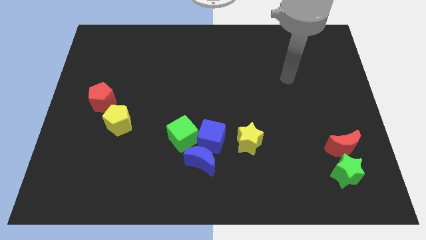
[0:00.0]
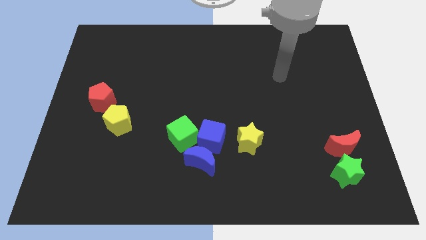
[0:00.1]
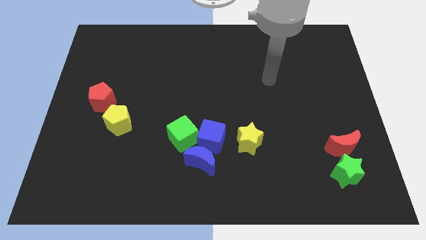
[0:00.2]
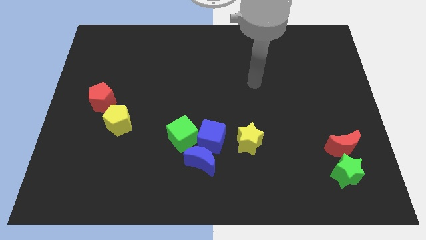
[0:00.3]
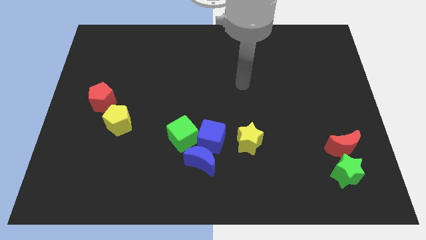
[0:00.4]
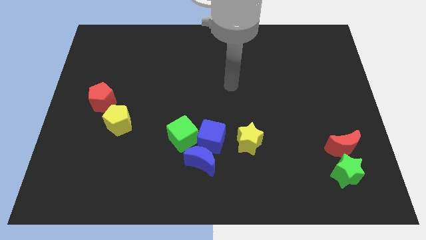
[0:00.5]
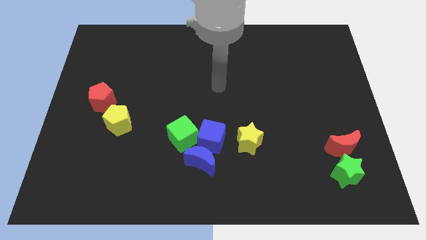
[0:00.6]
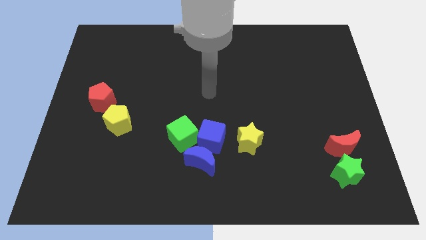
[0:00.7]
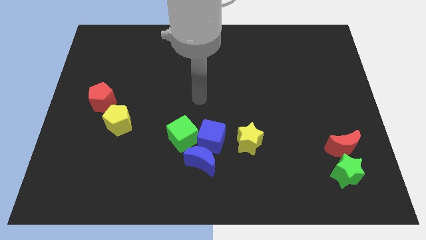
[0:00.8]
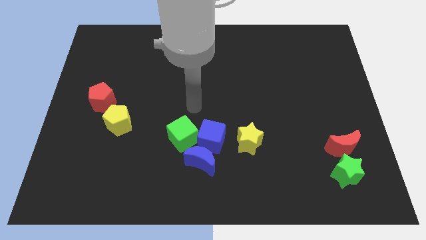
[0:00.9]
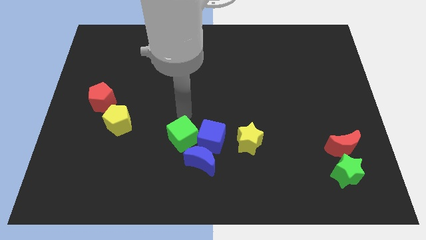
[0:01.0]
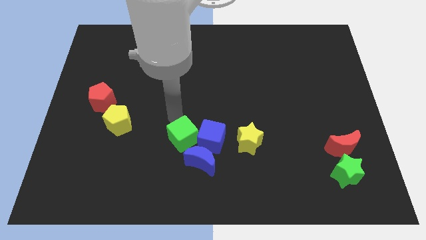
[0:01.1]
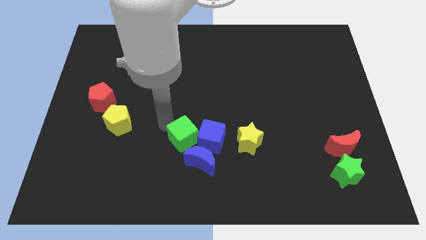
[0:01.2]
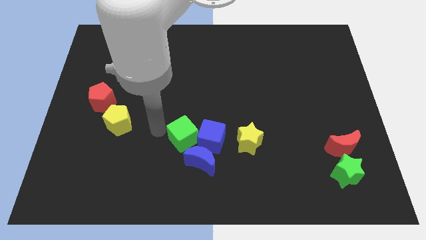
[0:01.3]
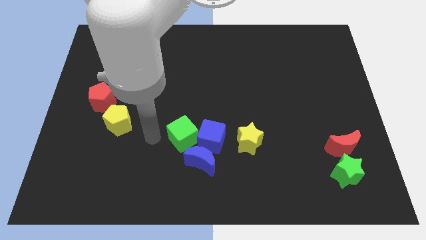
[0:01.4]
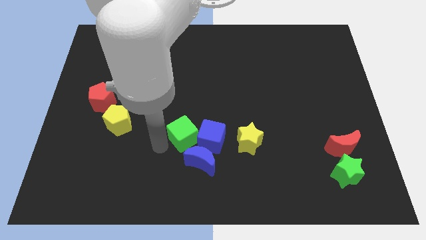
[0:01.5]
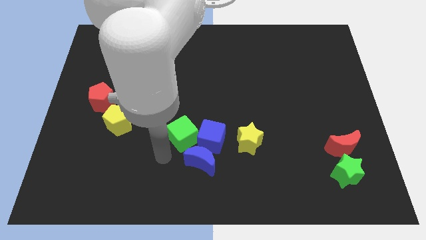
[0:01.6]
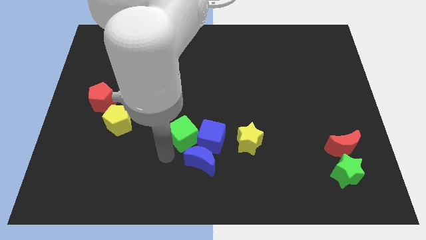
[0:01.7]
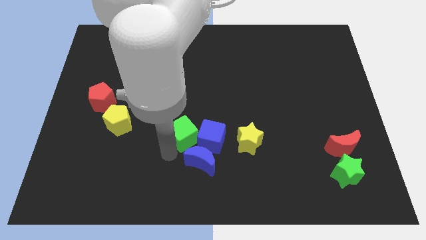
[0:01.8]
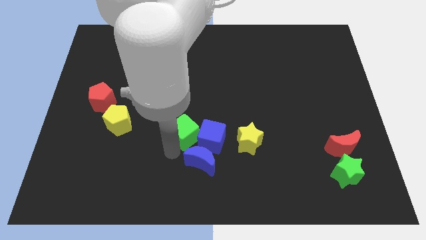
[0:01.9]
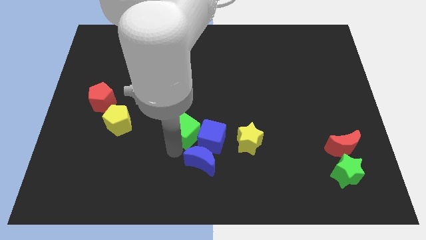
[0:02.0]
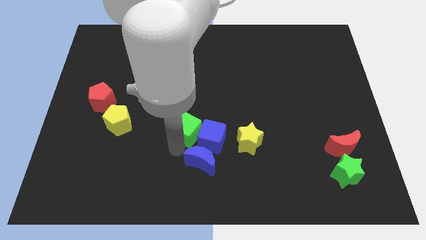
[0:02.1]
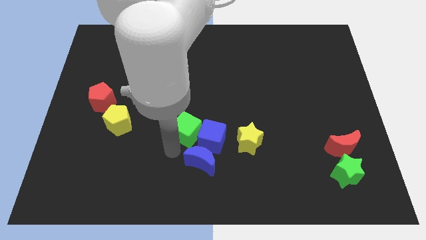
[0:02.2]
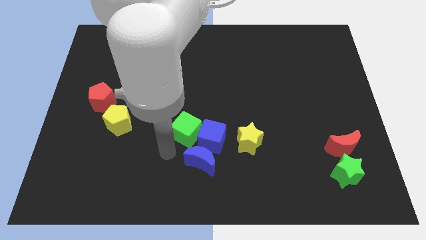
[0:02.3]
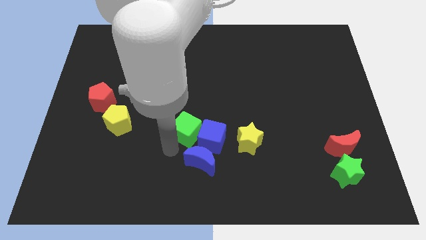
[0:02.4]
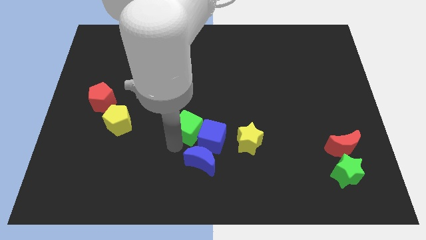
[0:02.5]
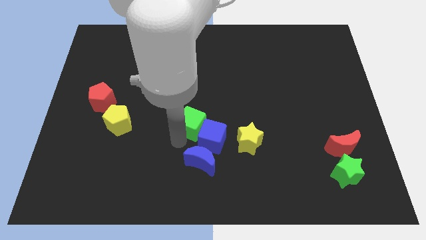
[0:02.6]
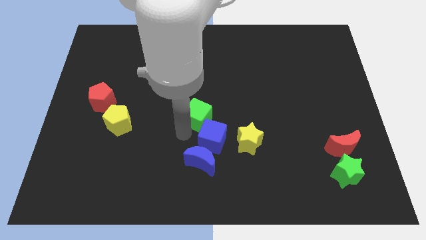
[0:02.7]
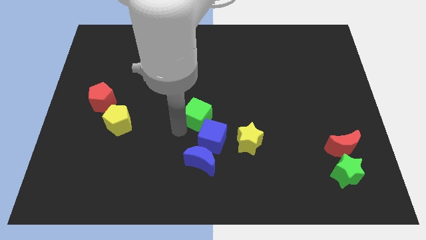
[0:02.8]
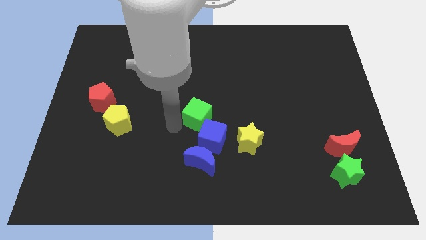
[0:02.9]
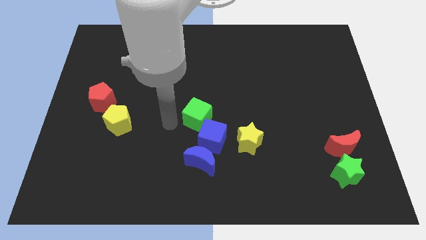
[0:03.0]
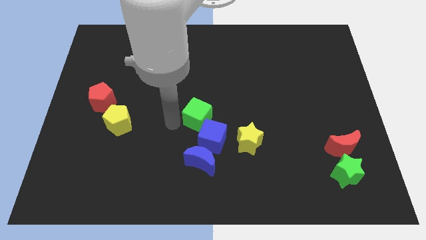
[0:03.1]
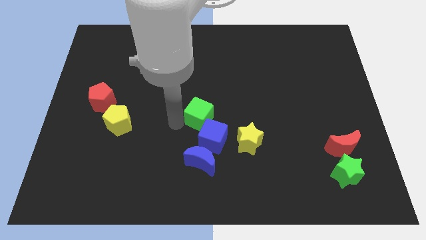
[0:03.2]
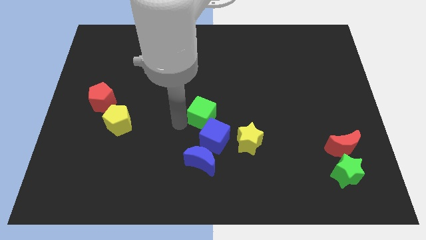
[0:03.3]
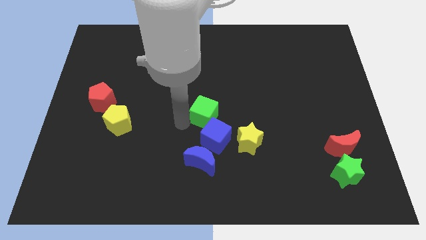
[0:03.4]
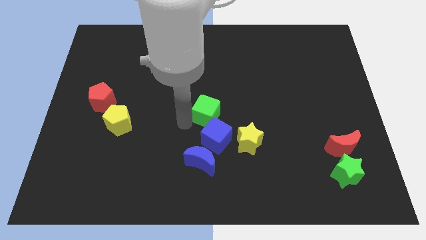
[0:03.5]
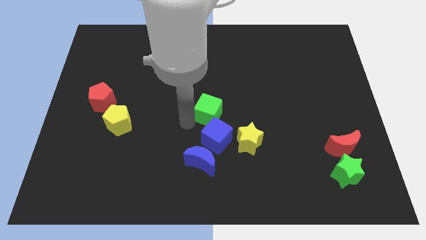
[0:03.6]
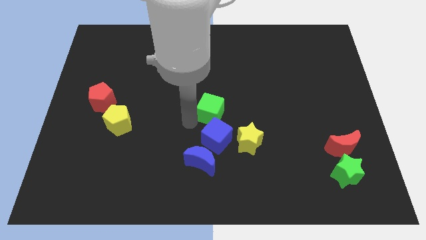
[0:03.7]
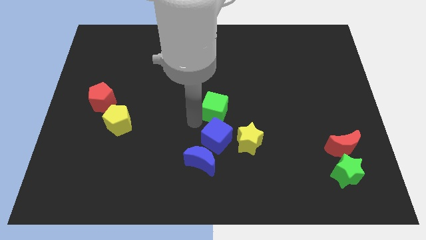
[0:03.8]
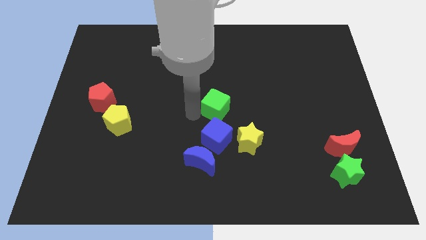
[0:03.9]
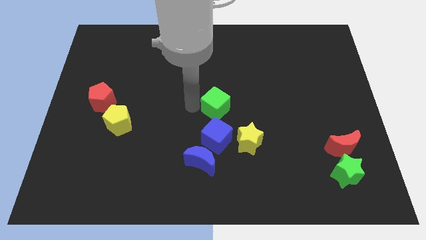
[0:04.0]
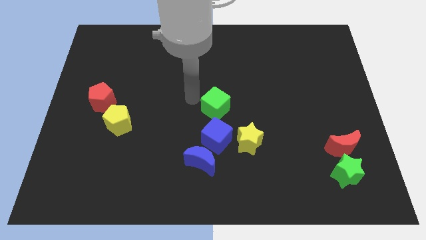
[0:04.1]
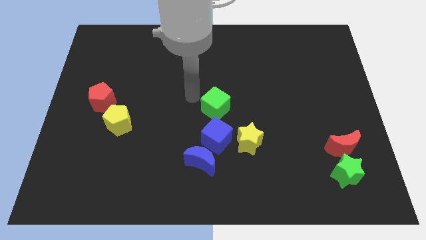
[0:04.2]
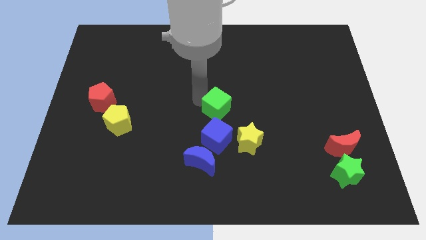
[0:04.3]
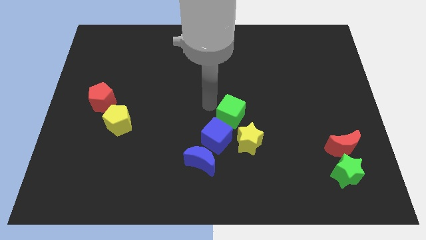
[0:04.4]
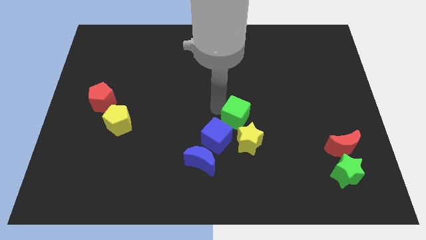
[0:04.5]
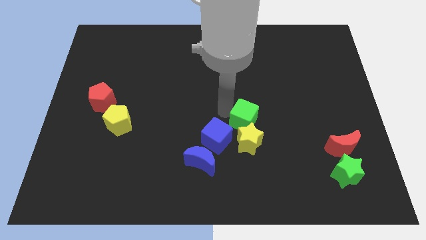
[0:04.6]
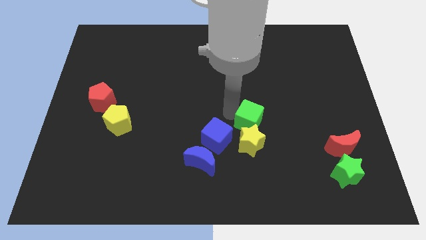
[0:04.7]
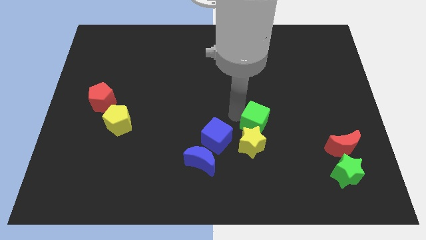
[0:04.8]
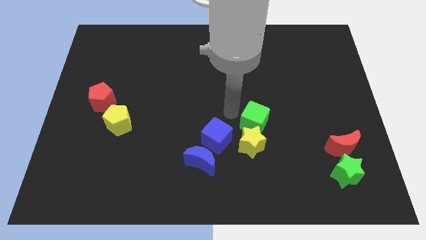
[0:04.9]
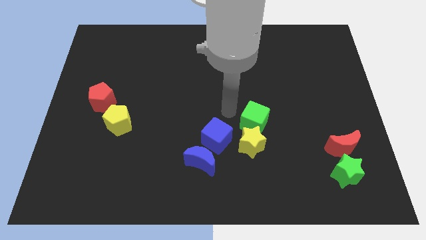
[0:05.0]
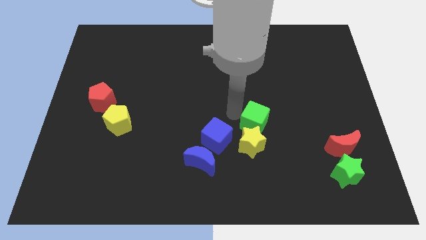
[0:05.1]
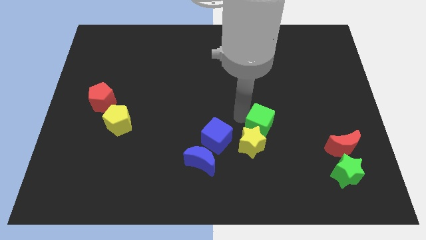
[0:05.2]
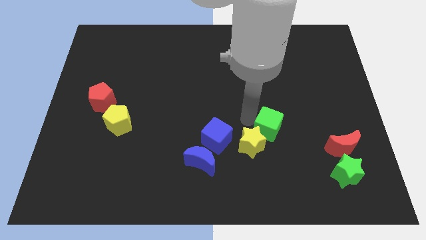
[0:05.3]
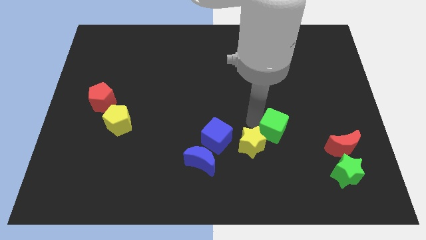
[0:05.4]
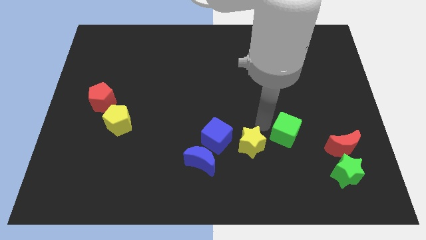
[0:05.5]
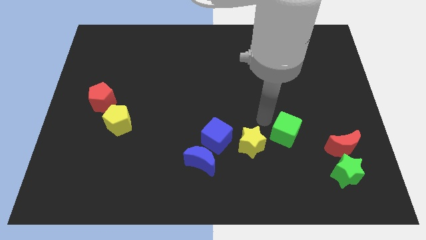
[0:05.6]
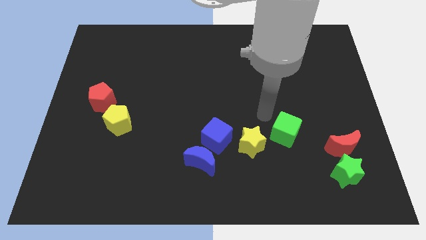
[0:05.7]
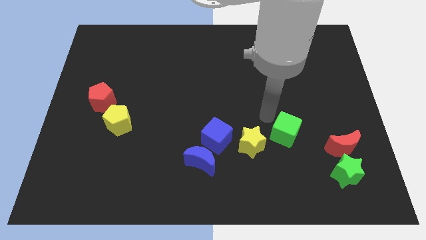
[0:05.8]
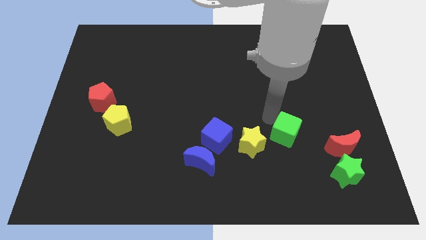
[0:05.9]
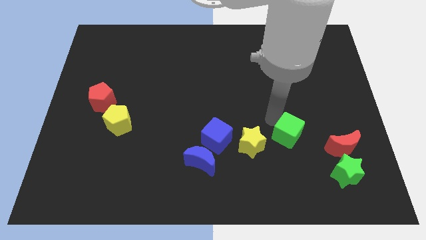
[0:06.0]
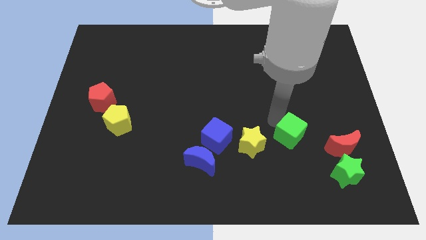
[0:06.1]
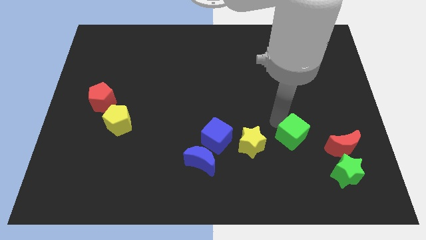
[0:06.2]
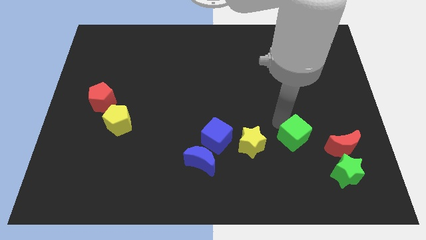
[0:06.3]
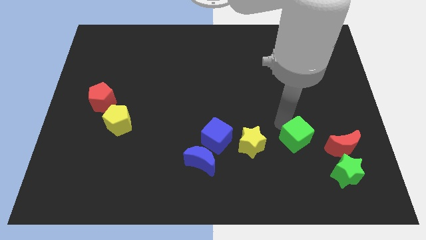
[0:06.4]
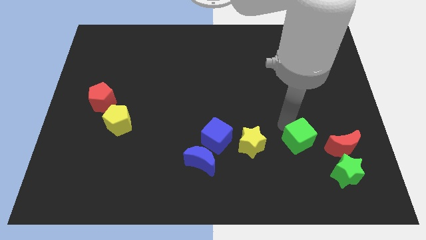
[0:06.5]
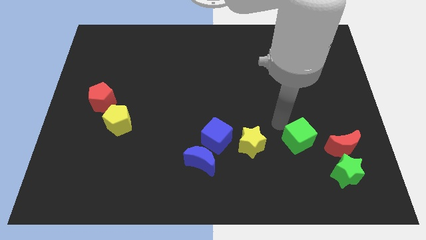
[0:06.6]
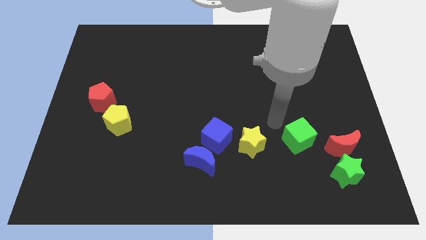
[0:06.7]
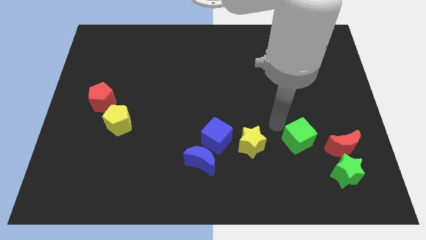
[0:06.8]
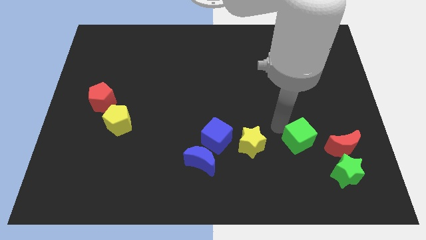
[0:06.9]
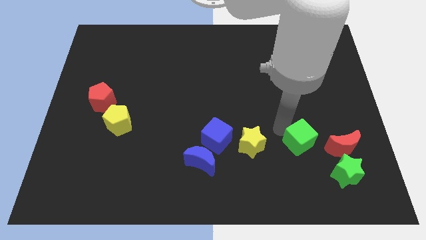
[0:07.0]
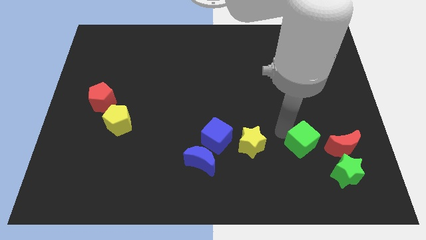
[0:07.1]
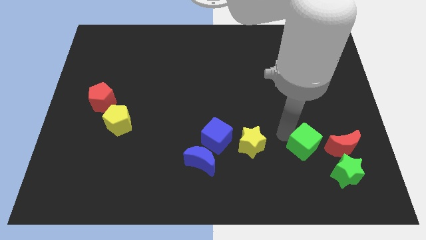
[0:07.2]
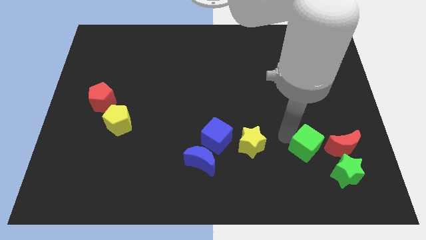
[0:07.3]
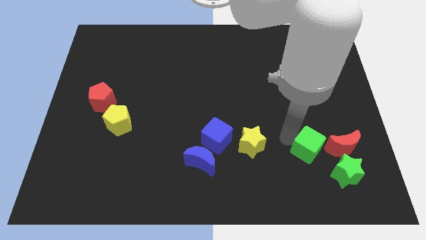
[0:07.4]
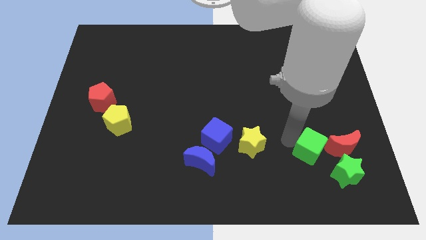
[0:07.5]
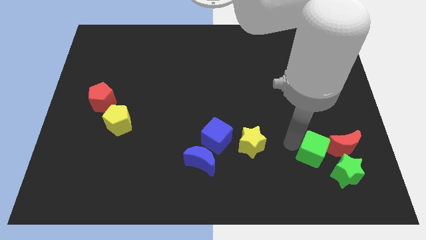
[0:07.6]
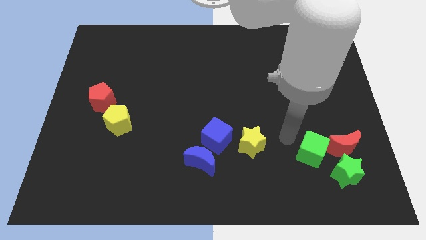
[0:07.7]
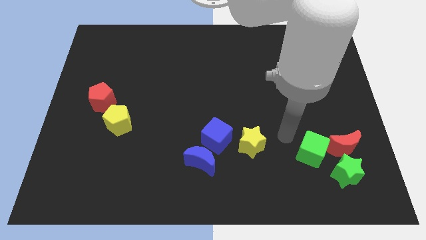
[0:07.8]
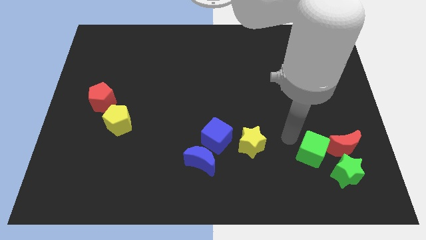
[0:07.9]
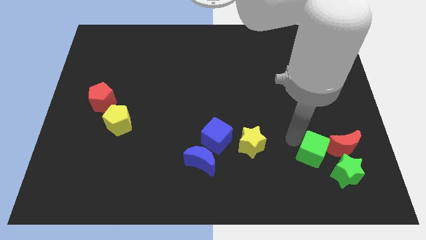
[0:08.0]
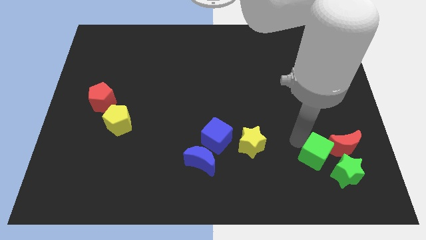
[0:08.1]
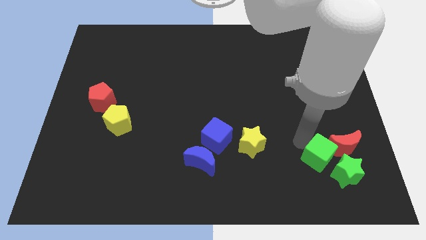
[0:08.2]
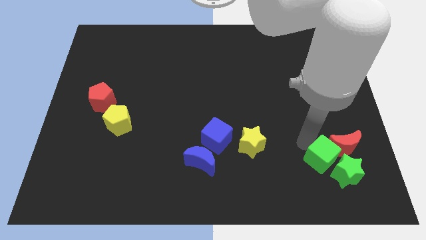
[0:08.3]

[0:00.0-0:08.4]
slide the green cube to the green star
